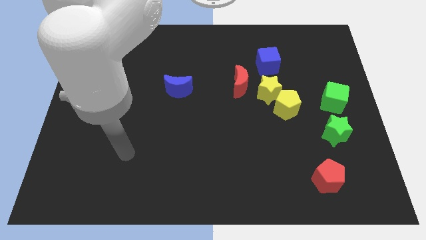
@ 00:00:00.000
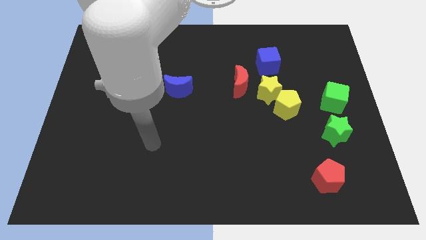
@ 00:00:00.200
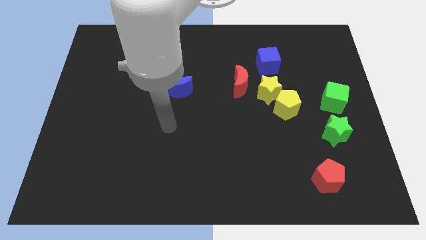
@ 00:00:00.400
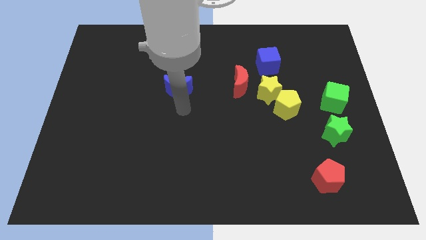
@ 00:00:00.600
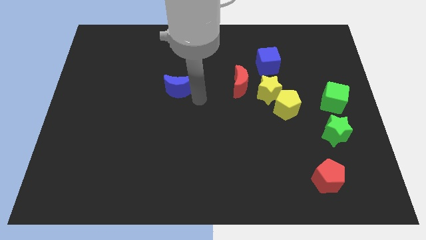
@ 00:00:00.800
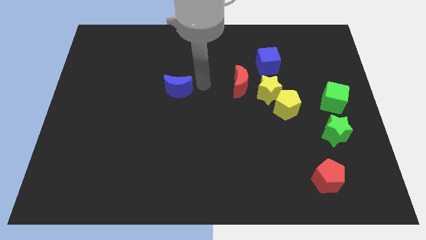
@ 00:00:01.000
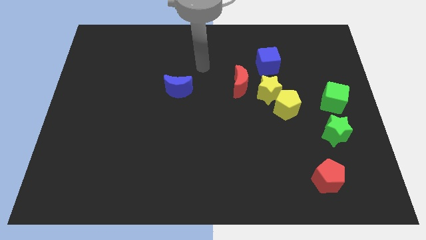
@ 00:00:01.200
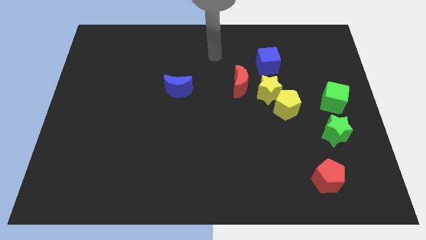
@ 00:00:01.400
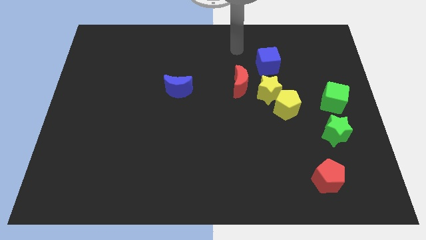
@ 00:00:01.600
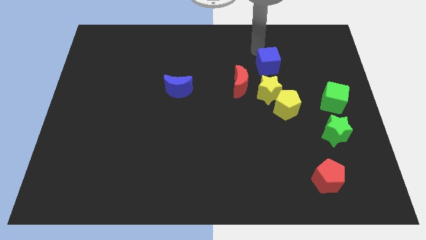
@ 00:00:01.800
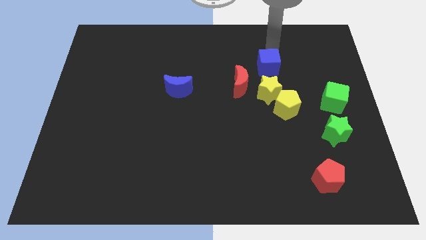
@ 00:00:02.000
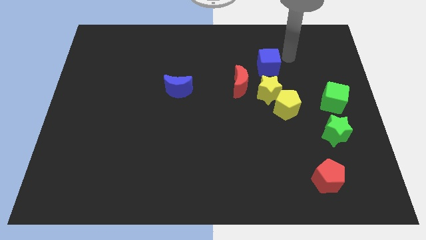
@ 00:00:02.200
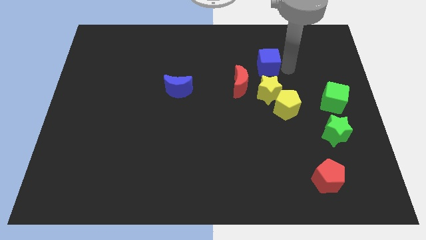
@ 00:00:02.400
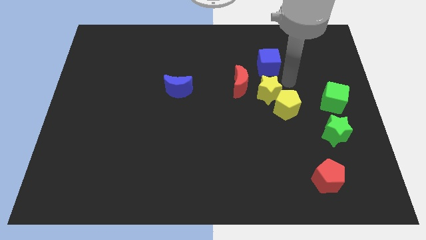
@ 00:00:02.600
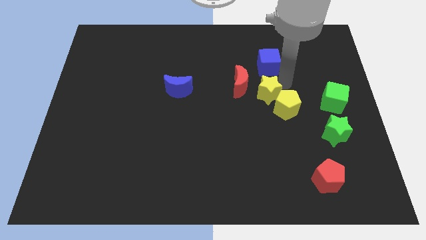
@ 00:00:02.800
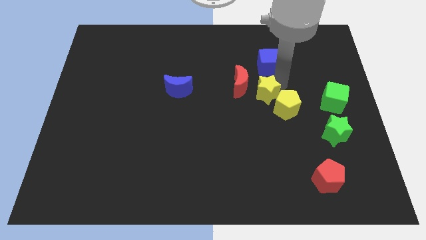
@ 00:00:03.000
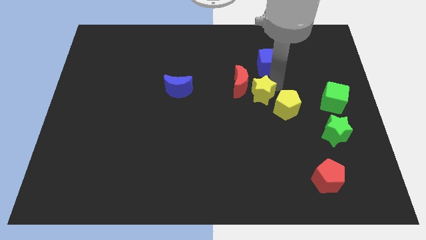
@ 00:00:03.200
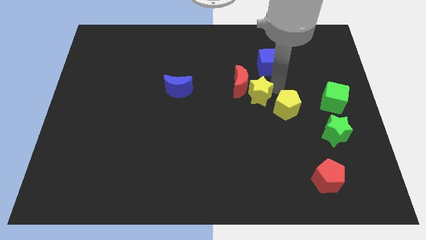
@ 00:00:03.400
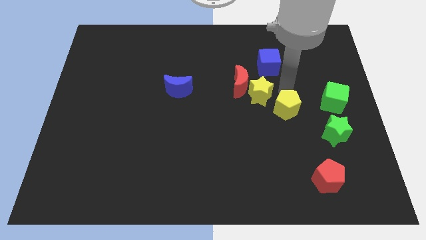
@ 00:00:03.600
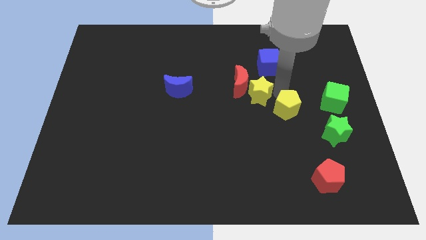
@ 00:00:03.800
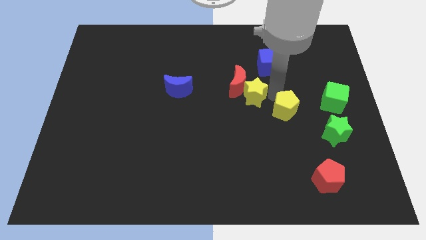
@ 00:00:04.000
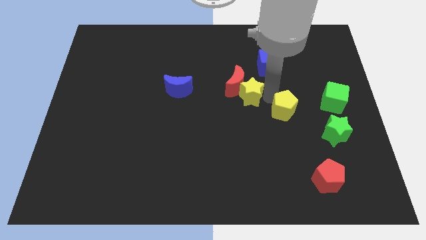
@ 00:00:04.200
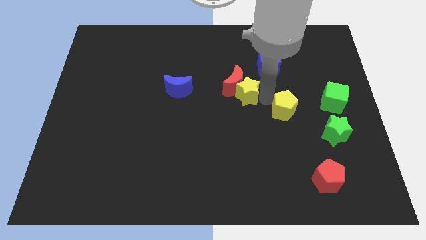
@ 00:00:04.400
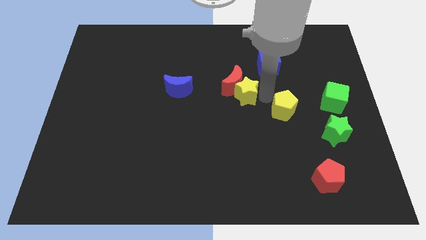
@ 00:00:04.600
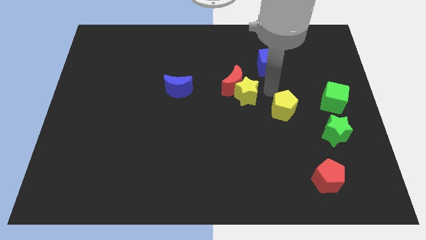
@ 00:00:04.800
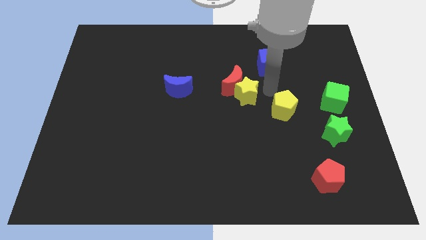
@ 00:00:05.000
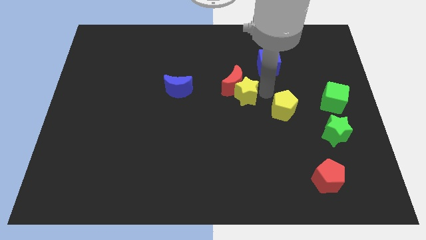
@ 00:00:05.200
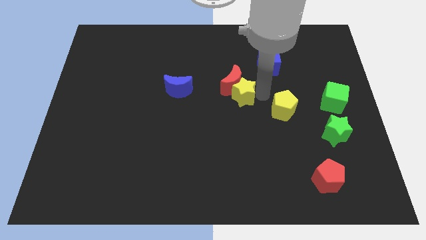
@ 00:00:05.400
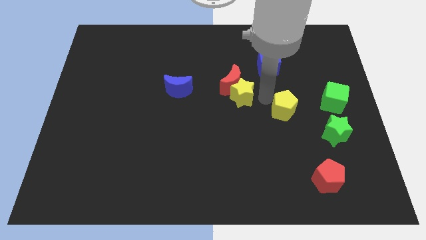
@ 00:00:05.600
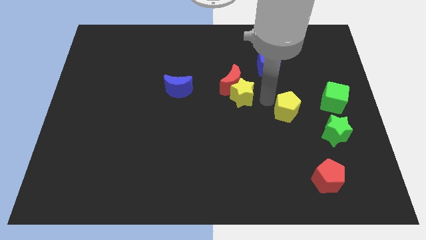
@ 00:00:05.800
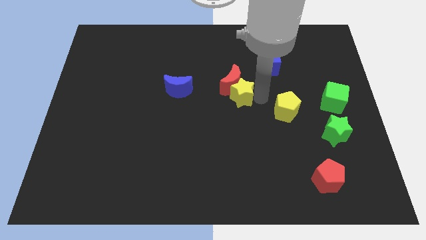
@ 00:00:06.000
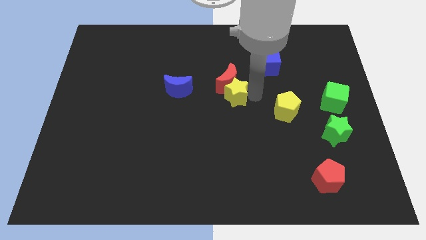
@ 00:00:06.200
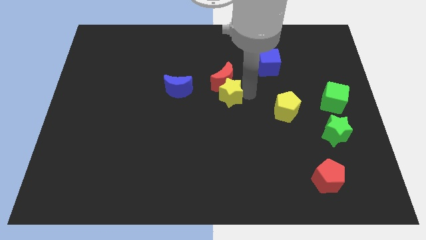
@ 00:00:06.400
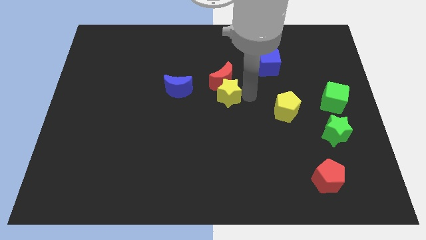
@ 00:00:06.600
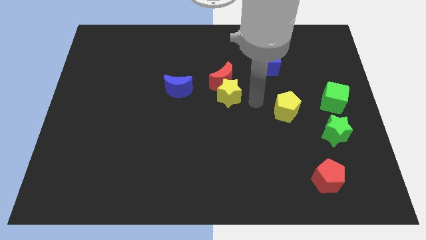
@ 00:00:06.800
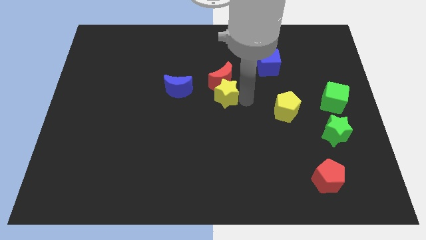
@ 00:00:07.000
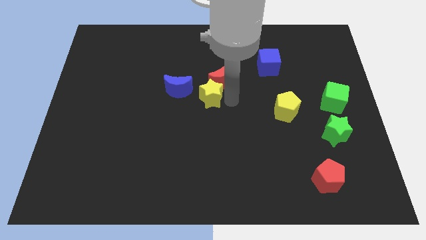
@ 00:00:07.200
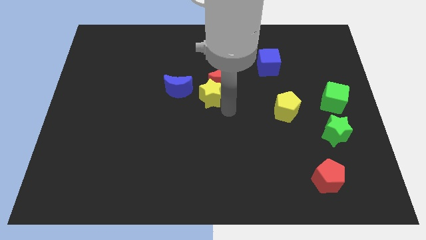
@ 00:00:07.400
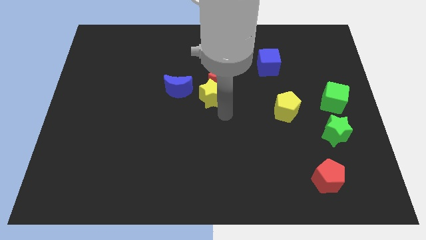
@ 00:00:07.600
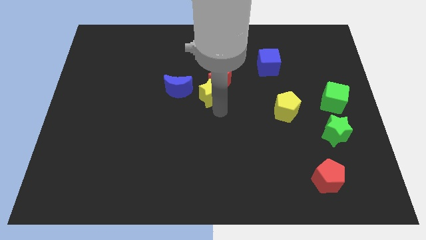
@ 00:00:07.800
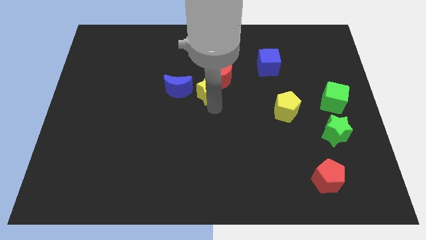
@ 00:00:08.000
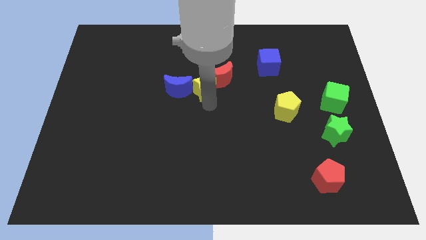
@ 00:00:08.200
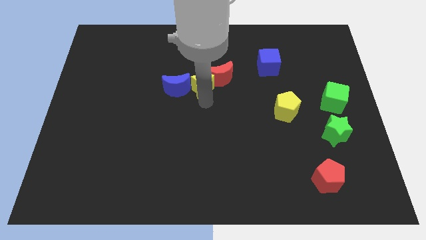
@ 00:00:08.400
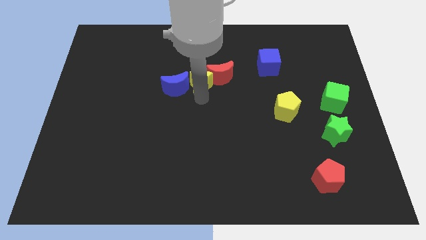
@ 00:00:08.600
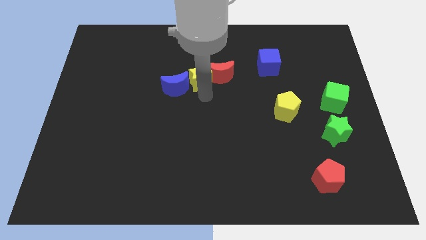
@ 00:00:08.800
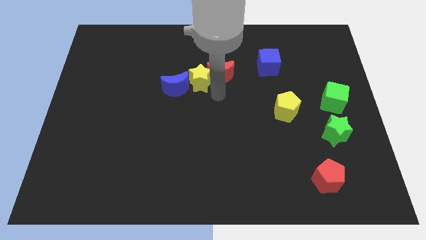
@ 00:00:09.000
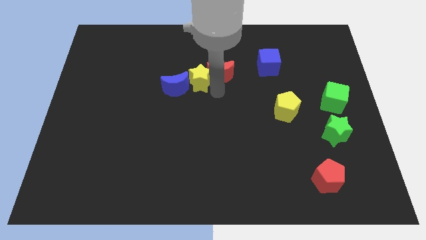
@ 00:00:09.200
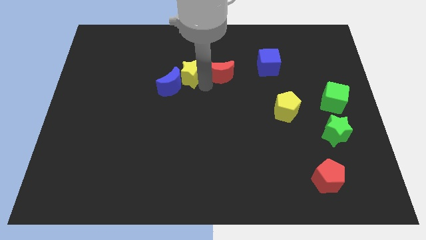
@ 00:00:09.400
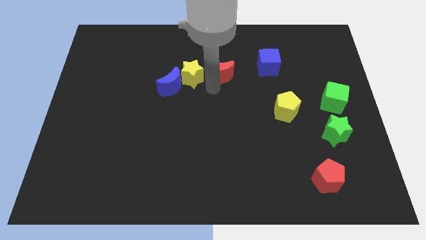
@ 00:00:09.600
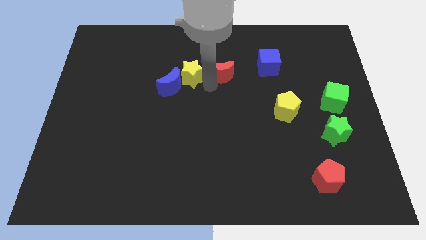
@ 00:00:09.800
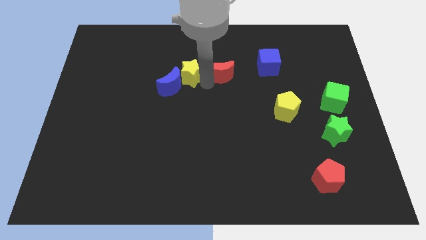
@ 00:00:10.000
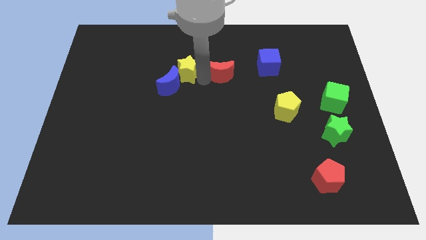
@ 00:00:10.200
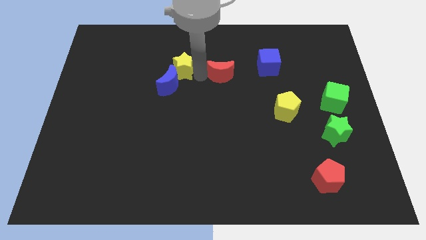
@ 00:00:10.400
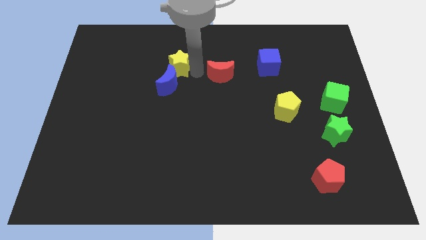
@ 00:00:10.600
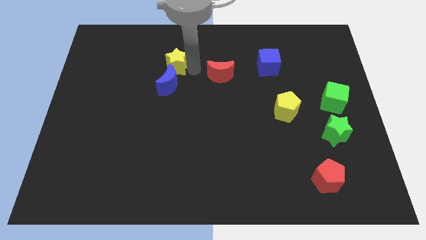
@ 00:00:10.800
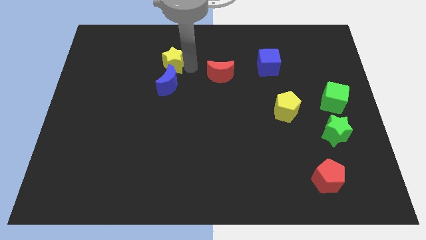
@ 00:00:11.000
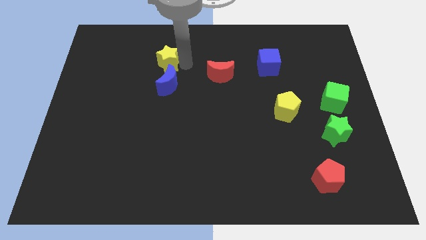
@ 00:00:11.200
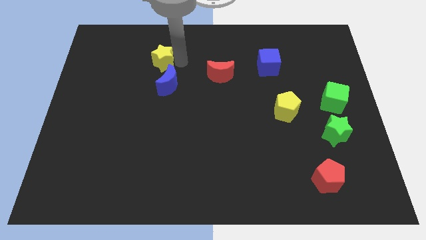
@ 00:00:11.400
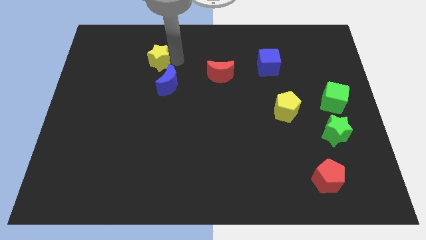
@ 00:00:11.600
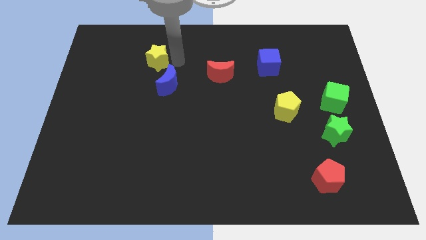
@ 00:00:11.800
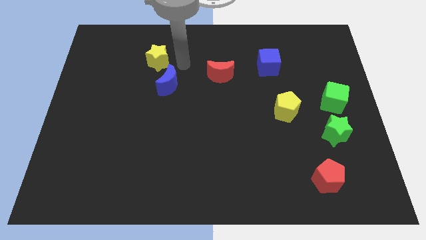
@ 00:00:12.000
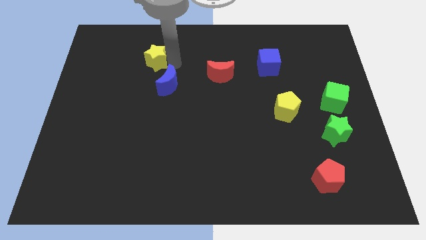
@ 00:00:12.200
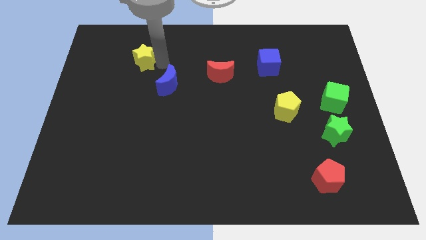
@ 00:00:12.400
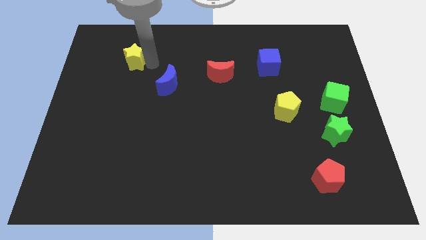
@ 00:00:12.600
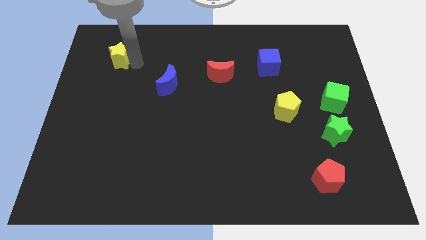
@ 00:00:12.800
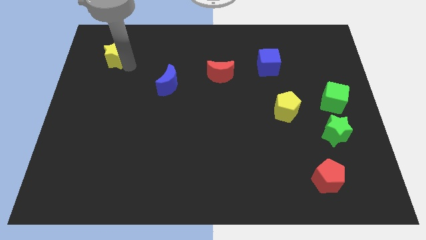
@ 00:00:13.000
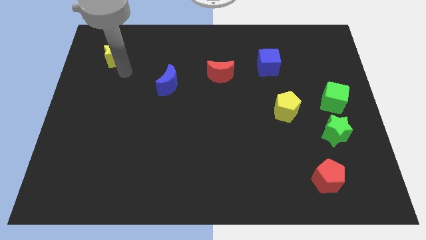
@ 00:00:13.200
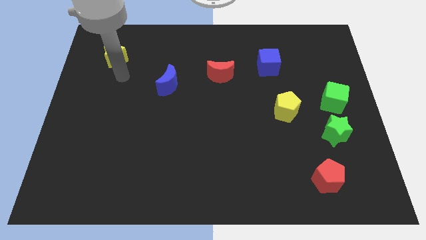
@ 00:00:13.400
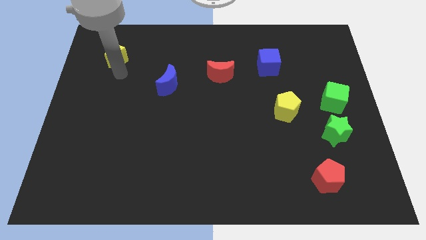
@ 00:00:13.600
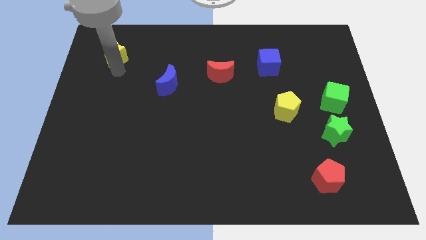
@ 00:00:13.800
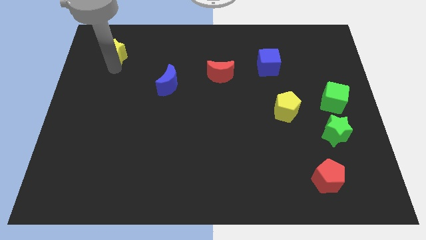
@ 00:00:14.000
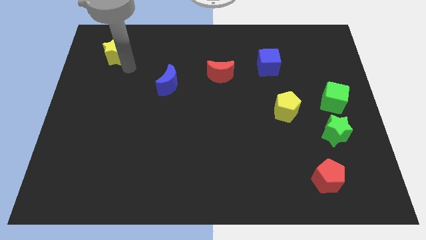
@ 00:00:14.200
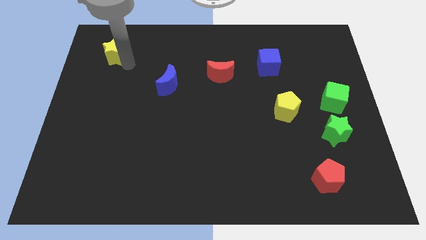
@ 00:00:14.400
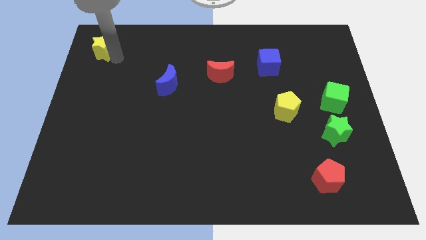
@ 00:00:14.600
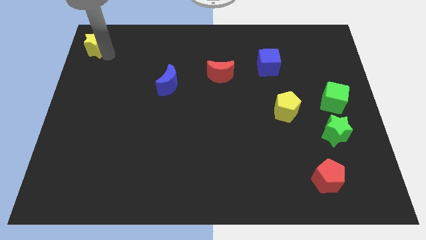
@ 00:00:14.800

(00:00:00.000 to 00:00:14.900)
slide the yellow star to the top left of the board
